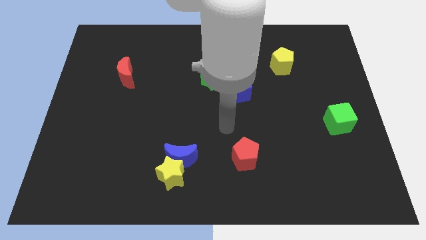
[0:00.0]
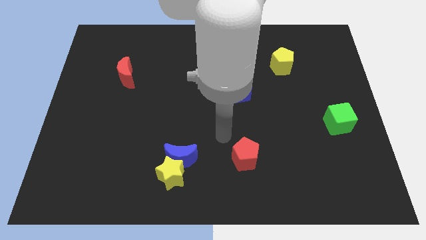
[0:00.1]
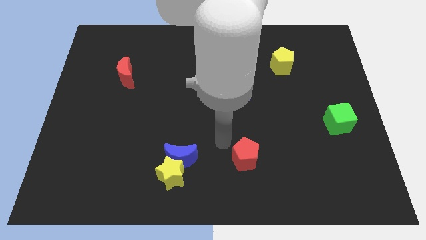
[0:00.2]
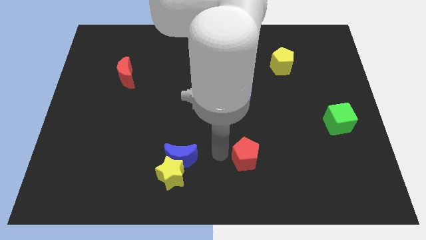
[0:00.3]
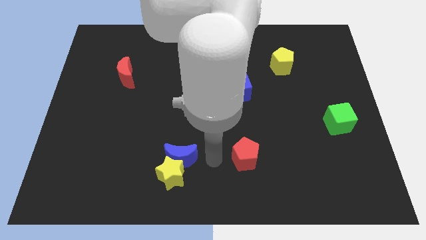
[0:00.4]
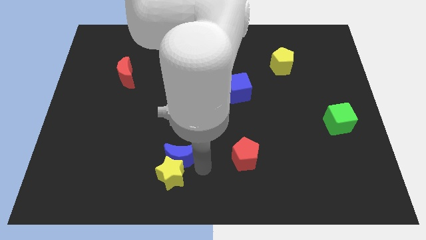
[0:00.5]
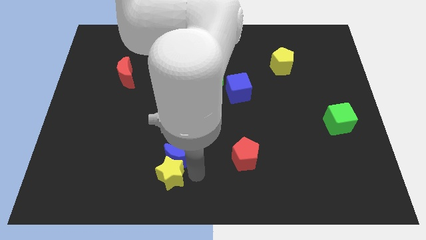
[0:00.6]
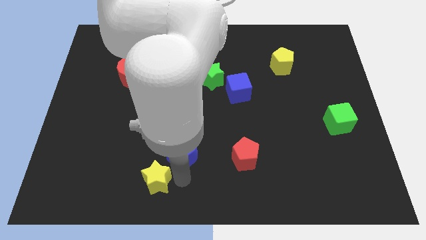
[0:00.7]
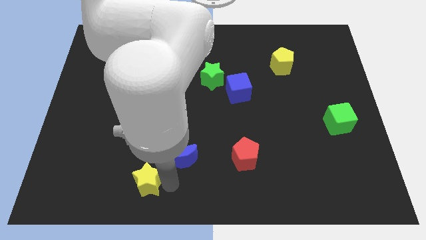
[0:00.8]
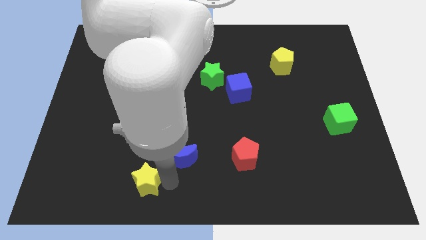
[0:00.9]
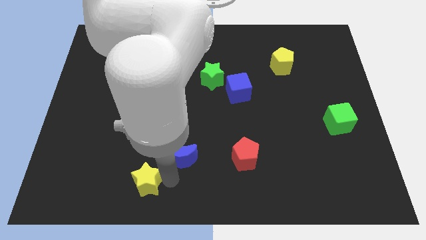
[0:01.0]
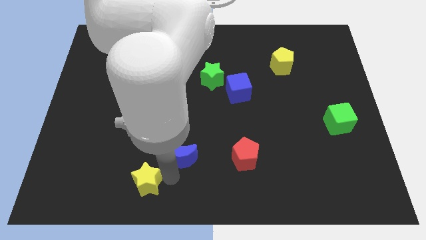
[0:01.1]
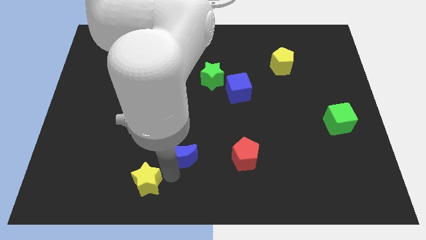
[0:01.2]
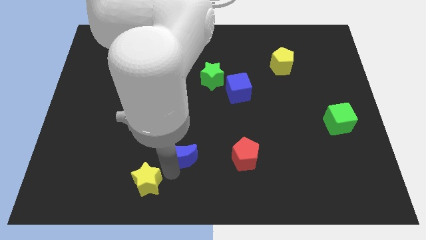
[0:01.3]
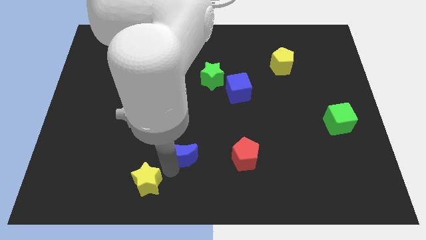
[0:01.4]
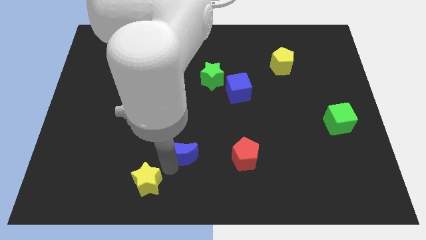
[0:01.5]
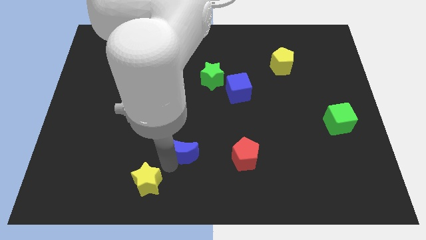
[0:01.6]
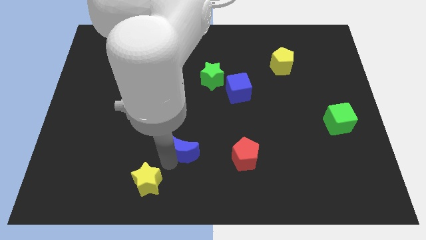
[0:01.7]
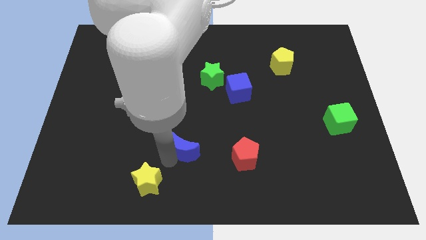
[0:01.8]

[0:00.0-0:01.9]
move the blue moon away from the yellow star

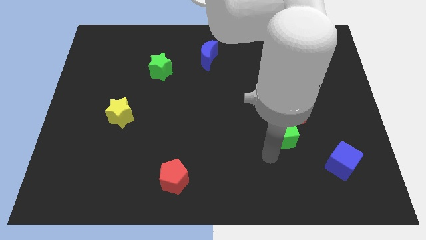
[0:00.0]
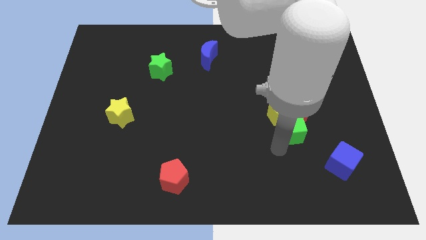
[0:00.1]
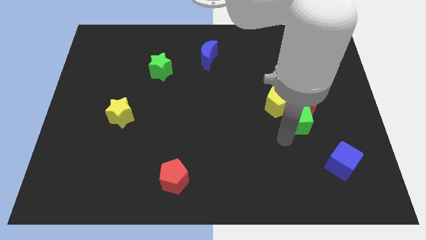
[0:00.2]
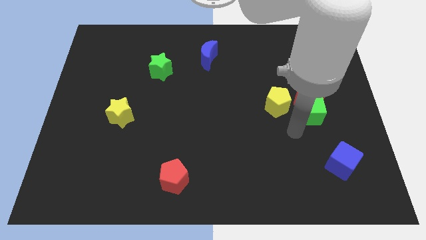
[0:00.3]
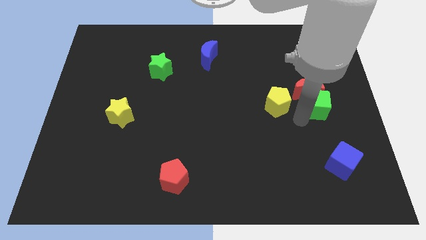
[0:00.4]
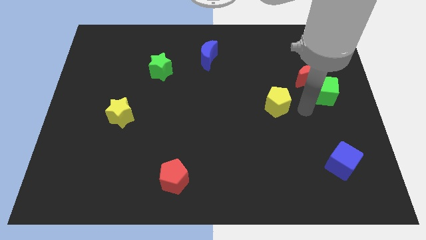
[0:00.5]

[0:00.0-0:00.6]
separate the yellow pentagon from the red moon and green cube

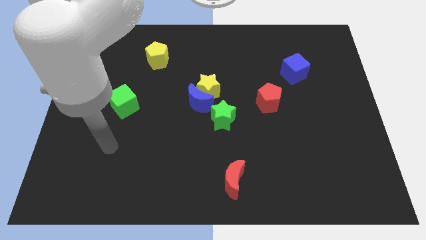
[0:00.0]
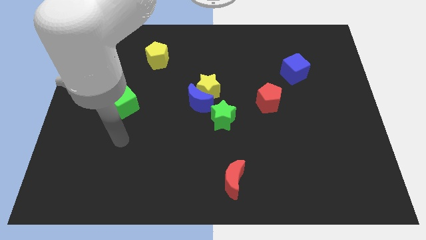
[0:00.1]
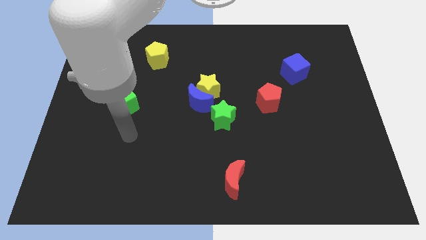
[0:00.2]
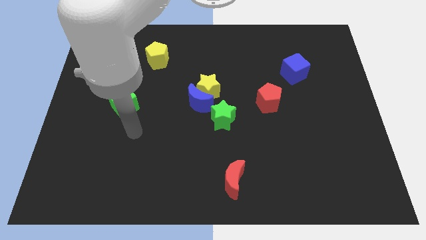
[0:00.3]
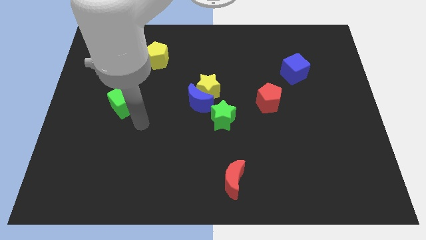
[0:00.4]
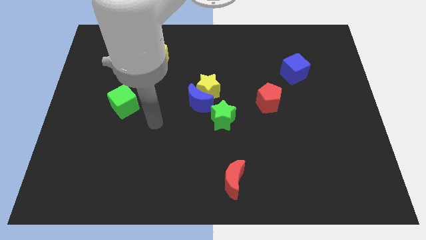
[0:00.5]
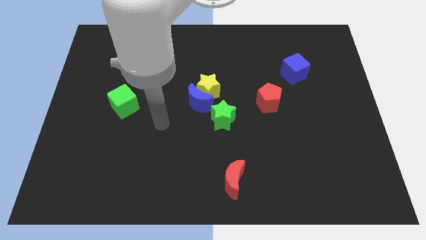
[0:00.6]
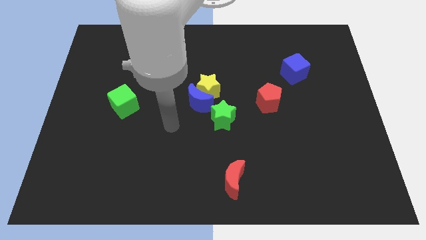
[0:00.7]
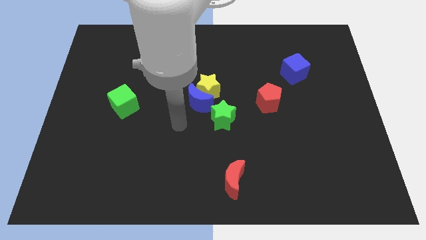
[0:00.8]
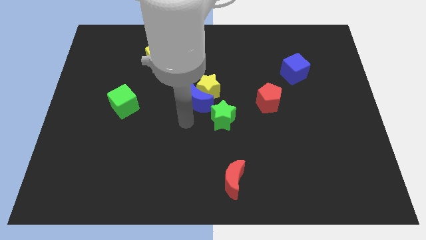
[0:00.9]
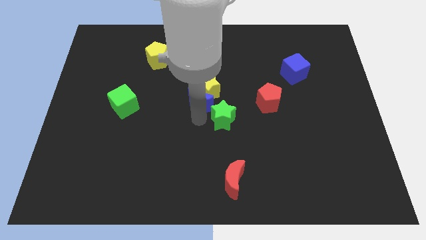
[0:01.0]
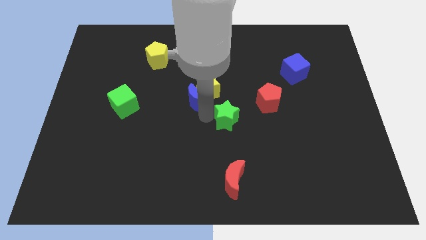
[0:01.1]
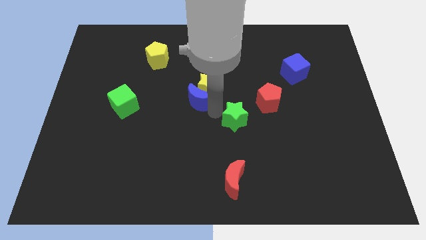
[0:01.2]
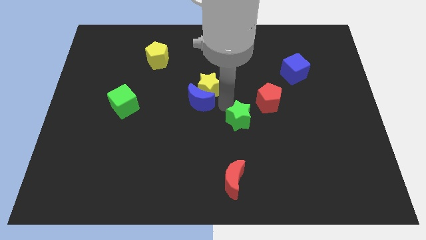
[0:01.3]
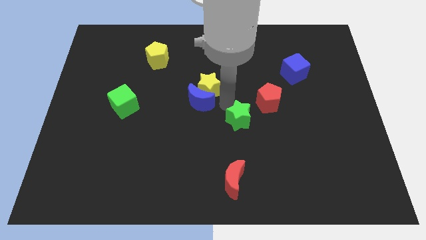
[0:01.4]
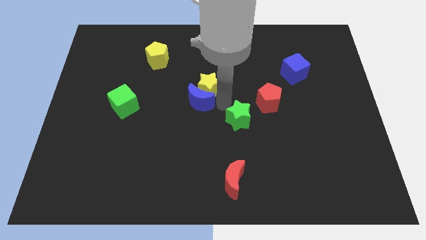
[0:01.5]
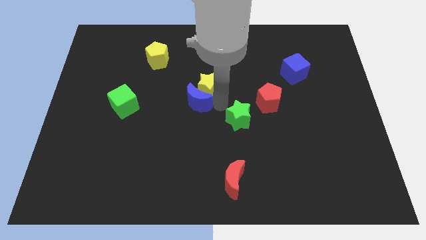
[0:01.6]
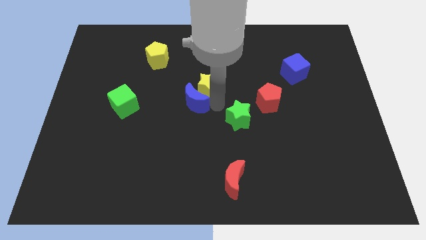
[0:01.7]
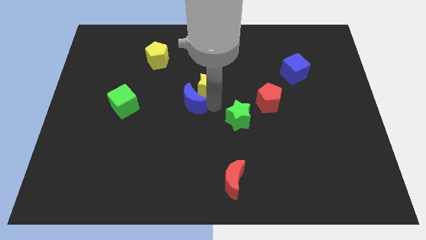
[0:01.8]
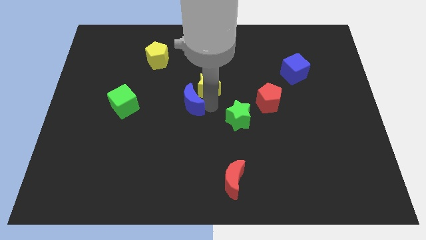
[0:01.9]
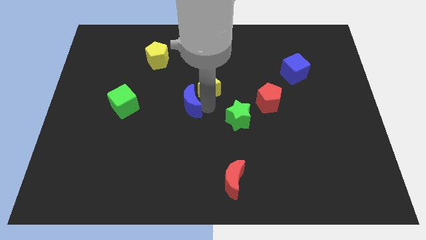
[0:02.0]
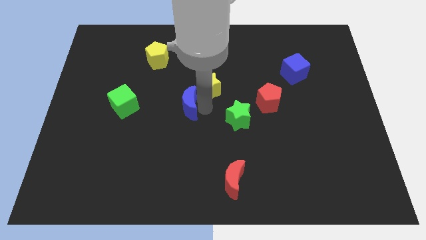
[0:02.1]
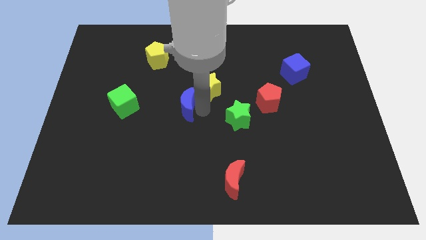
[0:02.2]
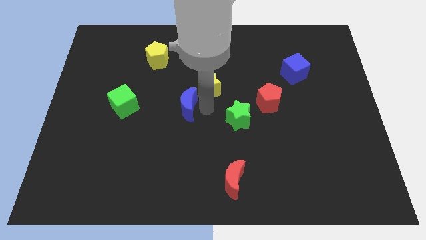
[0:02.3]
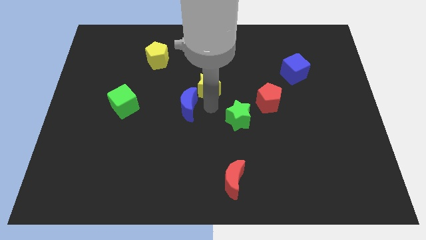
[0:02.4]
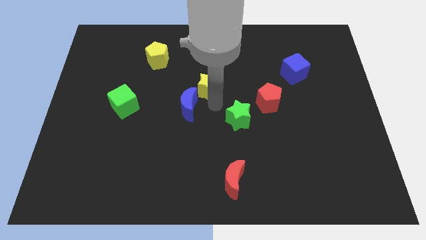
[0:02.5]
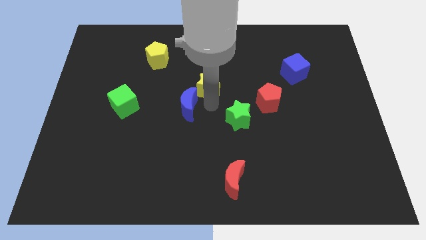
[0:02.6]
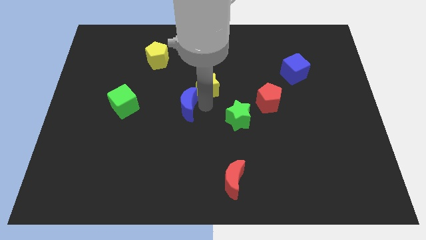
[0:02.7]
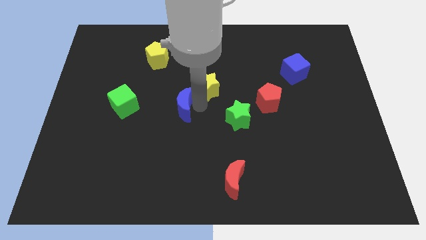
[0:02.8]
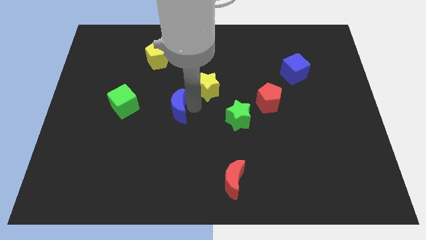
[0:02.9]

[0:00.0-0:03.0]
pull the blue moon apart from the yellow star and green star

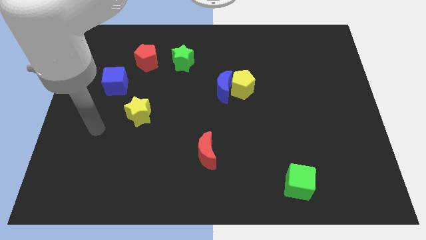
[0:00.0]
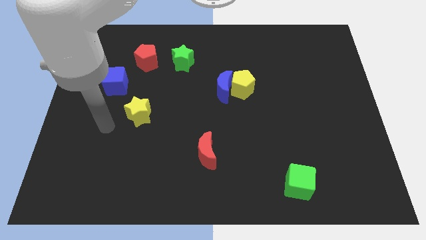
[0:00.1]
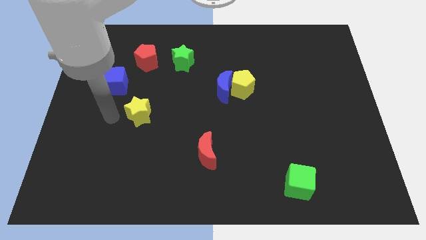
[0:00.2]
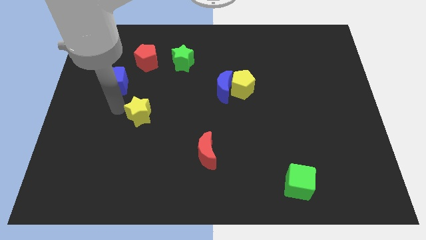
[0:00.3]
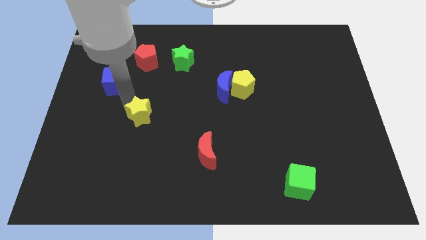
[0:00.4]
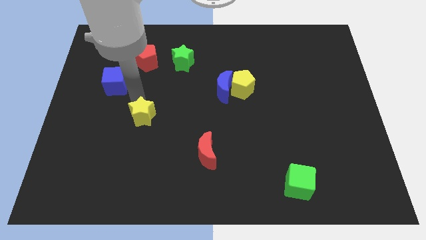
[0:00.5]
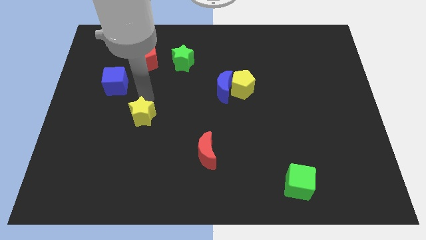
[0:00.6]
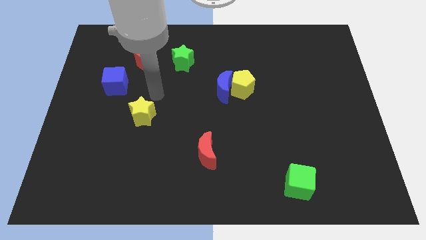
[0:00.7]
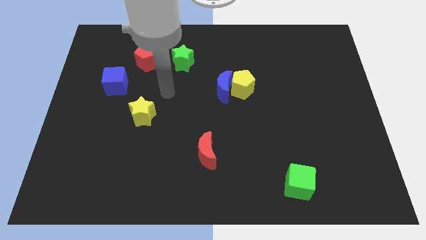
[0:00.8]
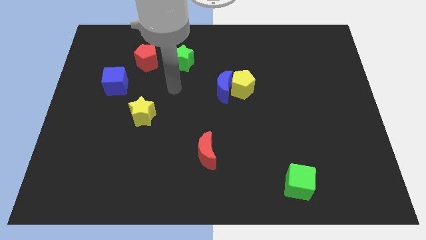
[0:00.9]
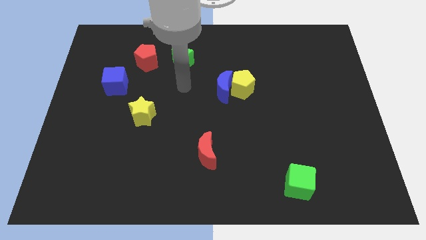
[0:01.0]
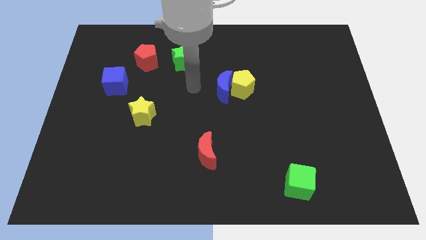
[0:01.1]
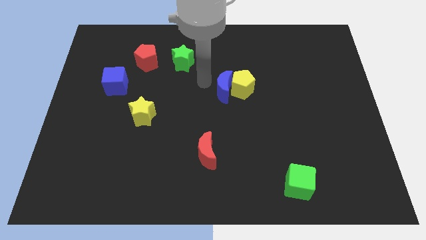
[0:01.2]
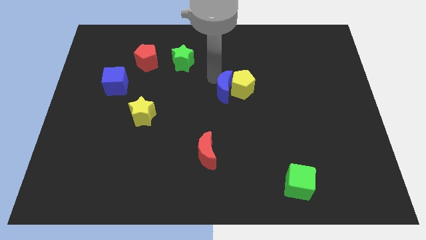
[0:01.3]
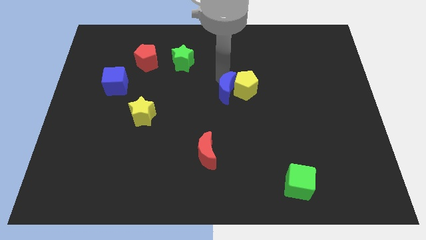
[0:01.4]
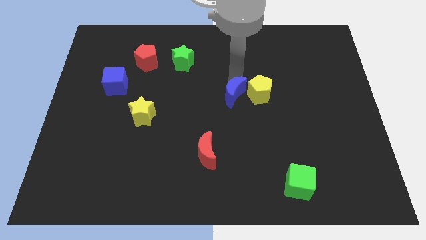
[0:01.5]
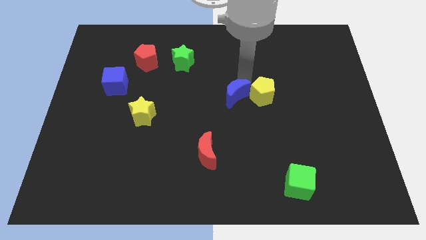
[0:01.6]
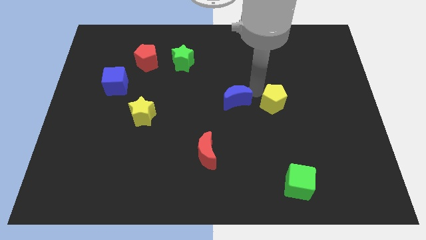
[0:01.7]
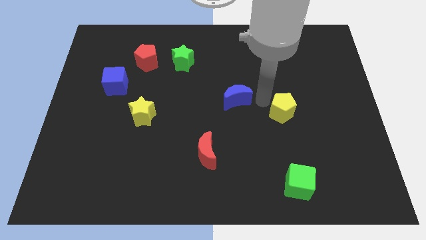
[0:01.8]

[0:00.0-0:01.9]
pull the blue moon apart from the yellow pentagon

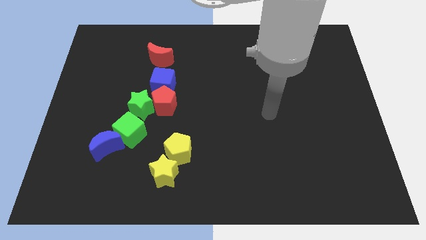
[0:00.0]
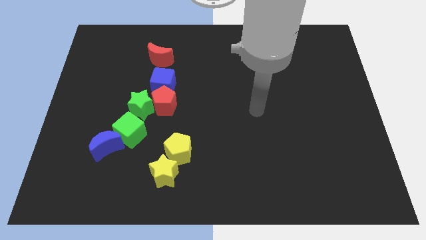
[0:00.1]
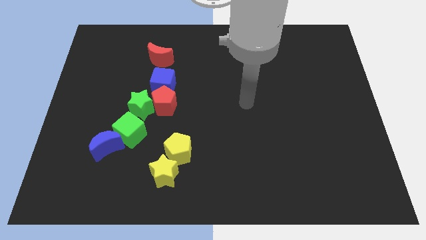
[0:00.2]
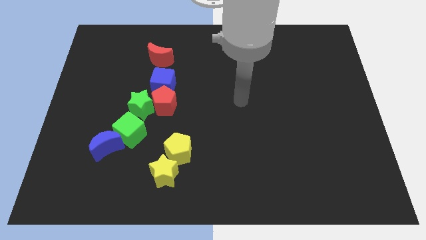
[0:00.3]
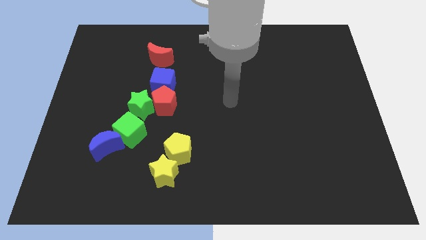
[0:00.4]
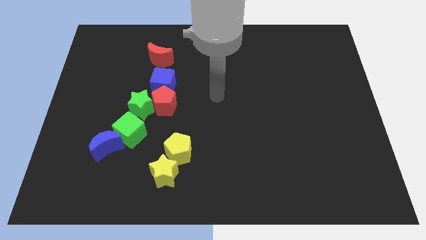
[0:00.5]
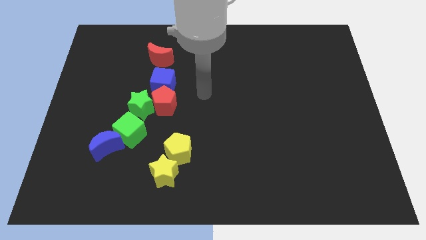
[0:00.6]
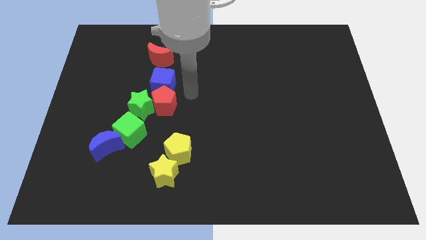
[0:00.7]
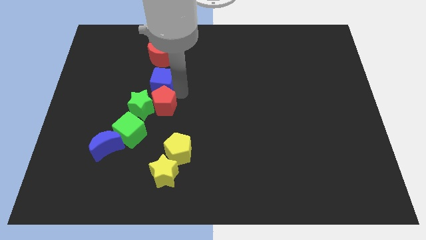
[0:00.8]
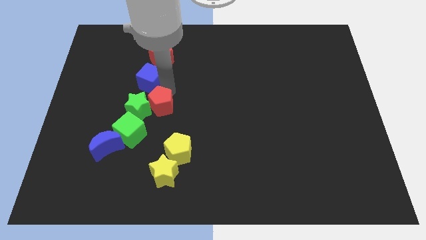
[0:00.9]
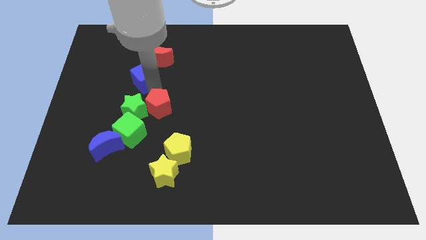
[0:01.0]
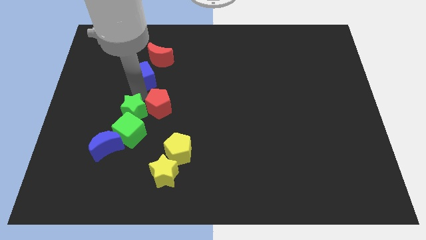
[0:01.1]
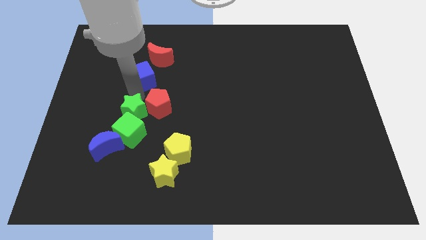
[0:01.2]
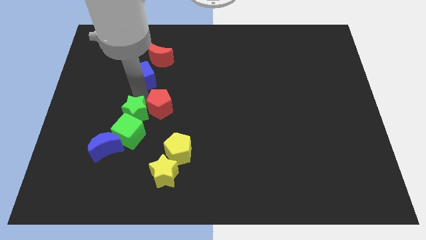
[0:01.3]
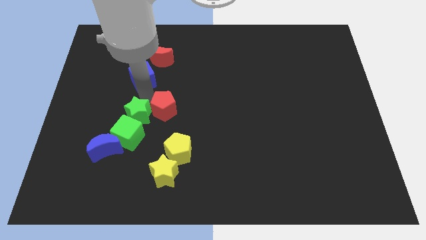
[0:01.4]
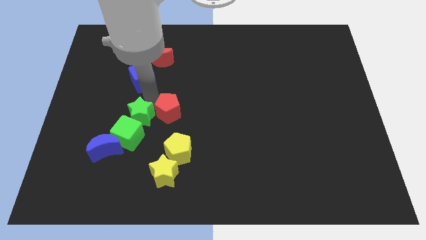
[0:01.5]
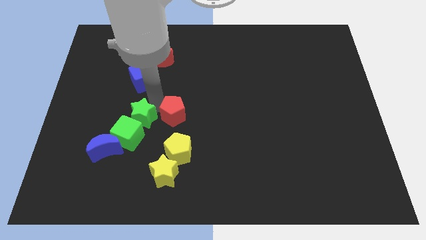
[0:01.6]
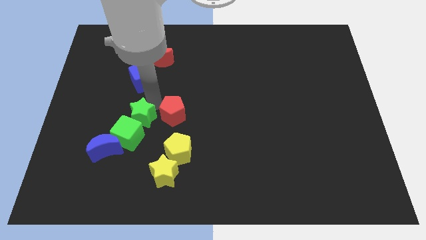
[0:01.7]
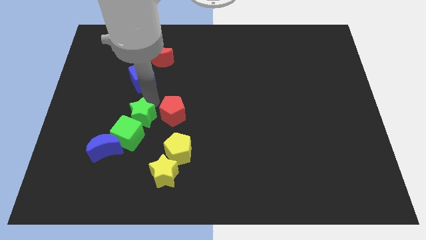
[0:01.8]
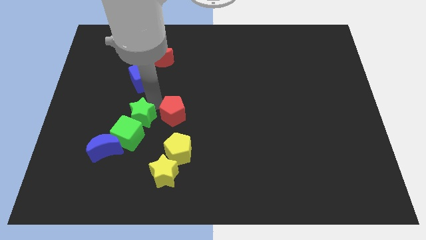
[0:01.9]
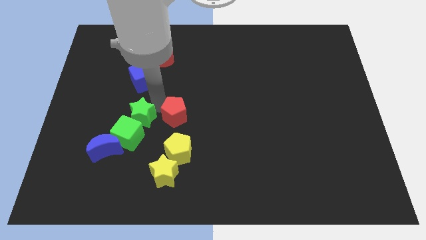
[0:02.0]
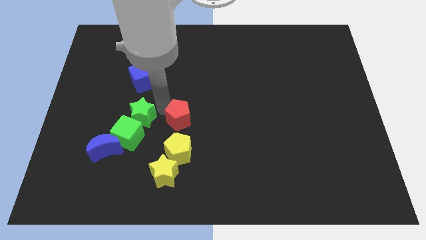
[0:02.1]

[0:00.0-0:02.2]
pull the red pentagon apart from the green star and blue cube
